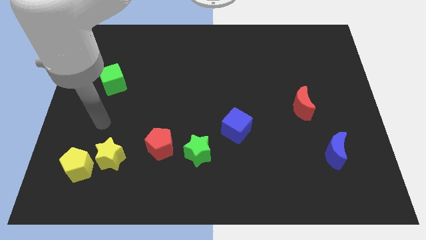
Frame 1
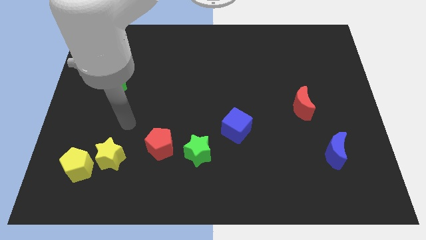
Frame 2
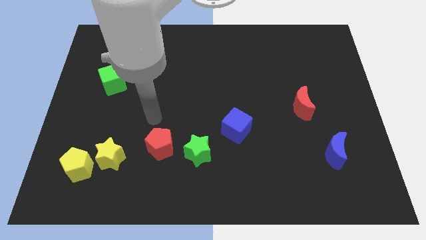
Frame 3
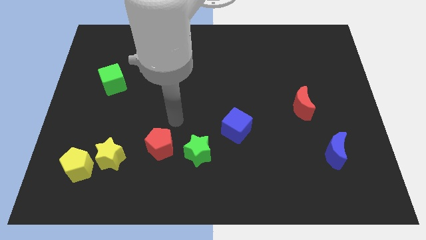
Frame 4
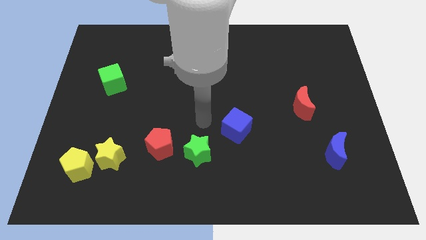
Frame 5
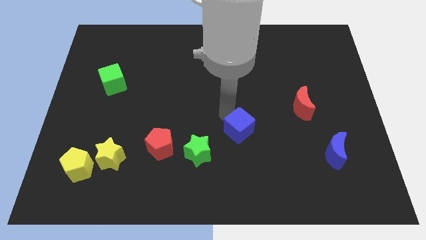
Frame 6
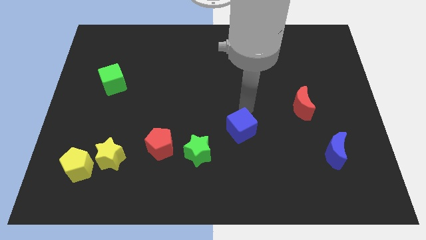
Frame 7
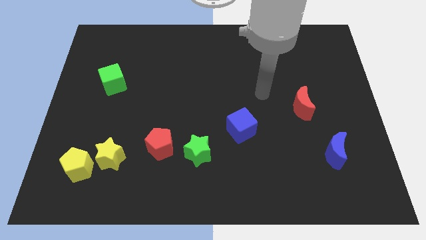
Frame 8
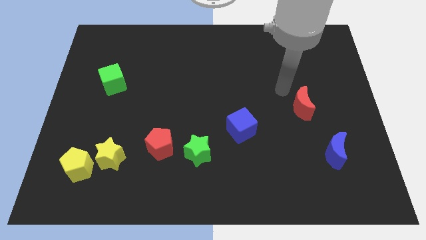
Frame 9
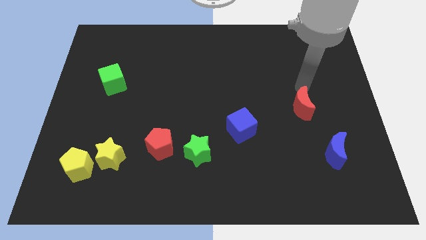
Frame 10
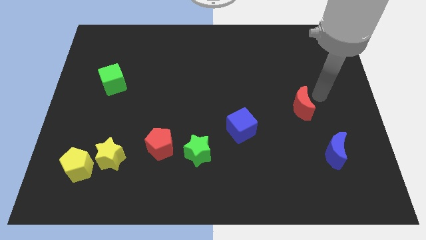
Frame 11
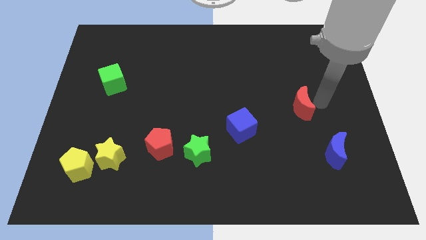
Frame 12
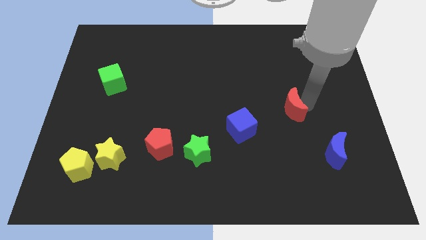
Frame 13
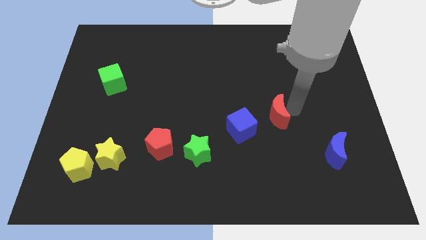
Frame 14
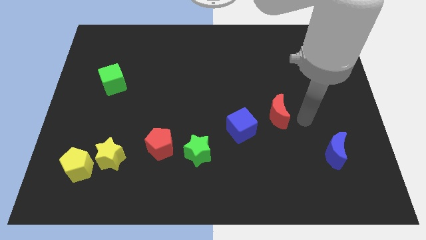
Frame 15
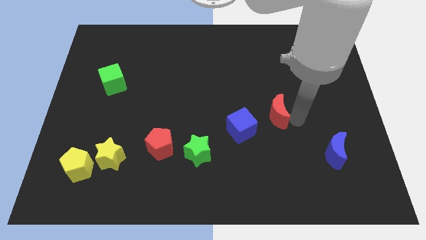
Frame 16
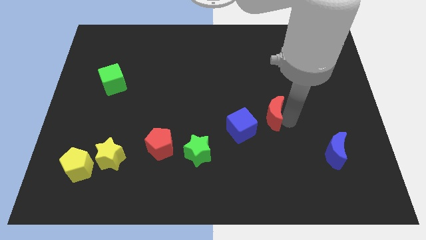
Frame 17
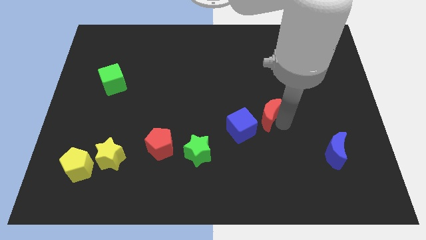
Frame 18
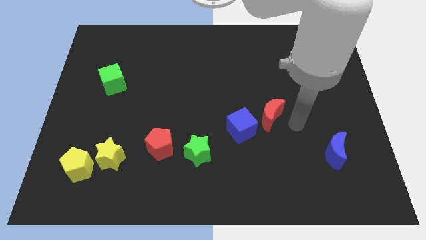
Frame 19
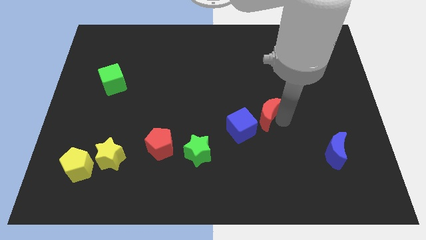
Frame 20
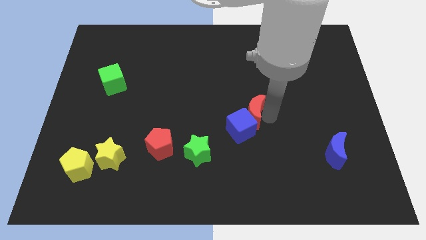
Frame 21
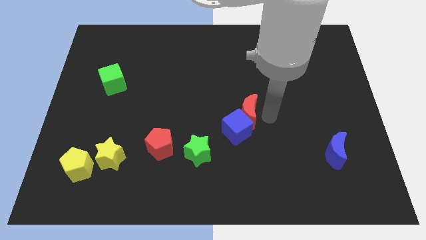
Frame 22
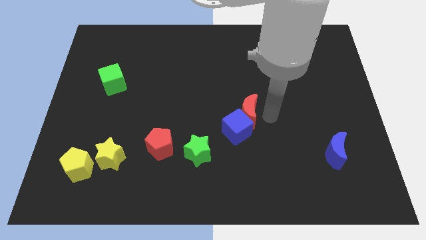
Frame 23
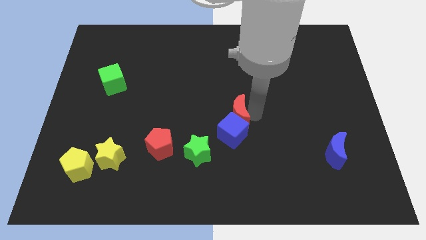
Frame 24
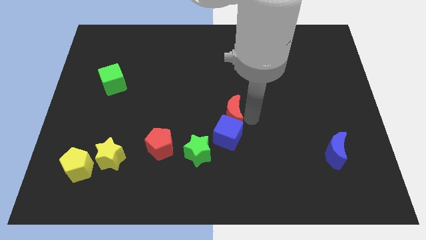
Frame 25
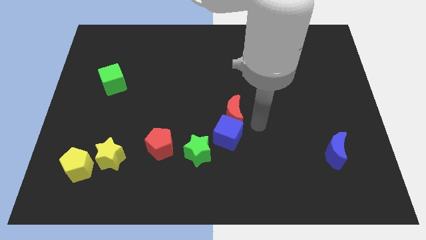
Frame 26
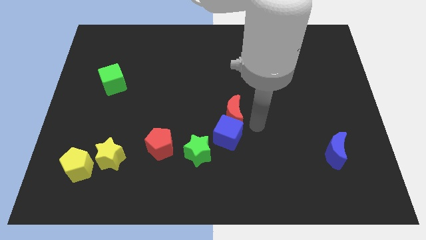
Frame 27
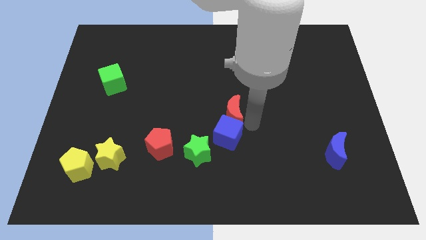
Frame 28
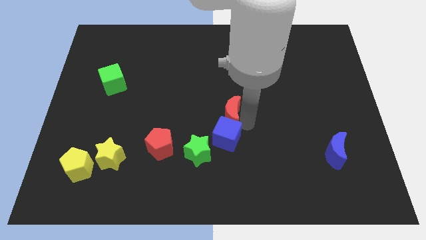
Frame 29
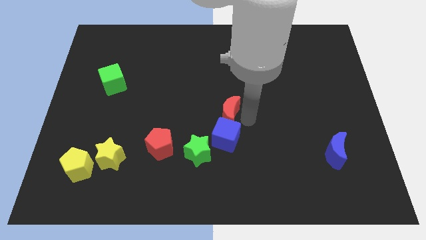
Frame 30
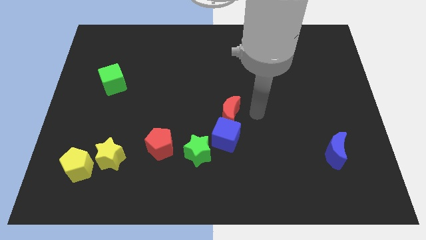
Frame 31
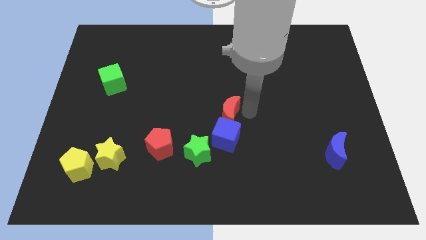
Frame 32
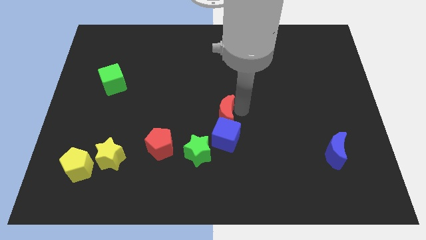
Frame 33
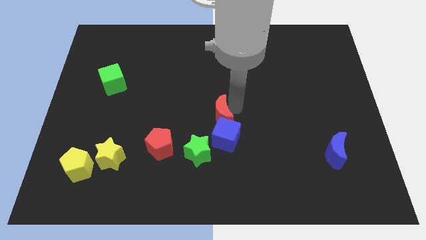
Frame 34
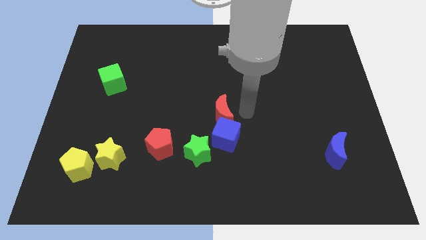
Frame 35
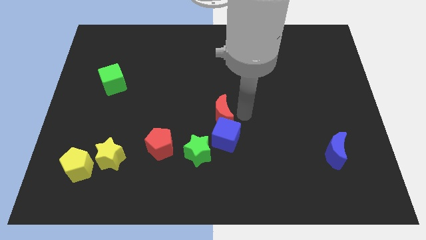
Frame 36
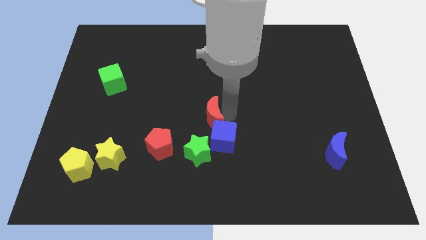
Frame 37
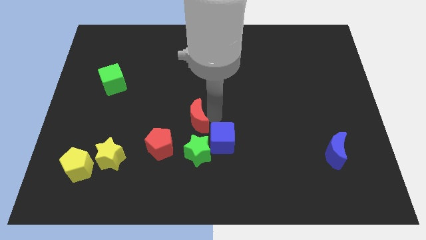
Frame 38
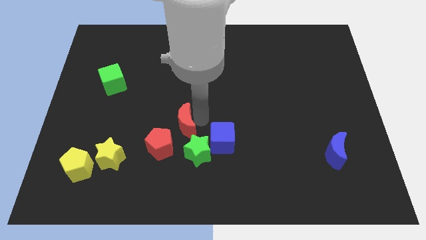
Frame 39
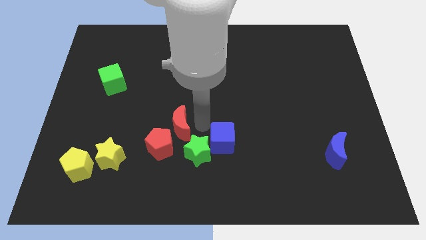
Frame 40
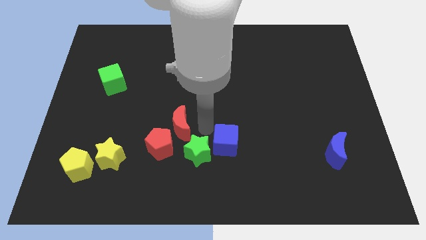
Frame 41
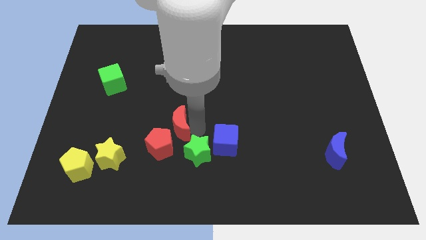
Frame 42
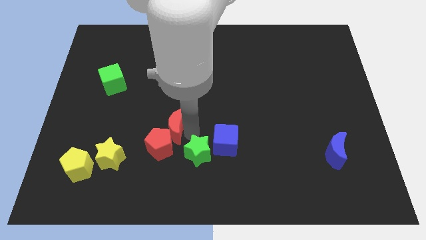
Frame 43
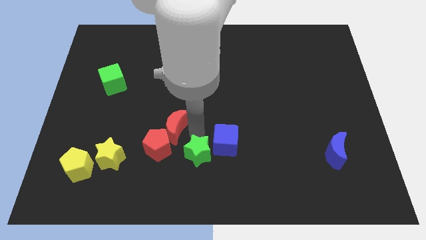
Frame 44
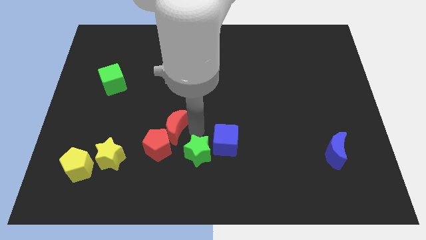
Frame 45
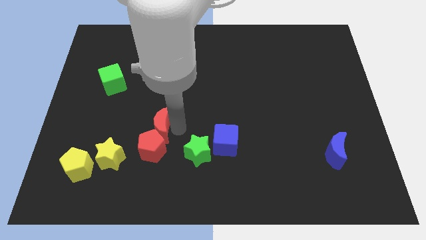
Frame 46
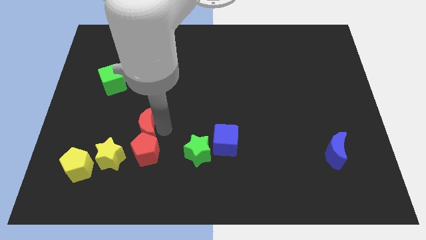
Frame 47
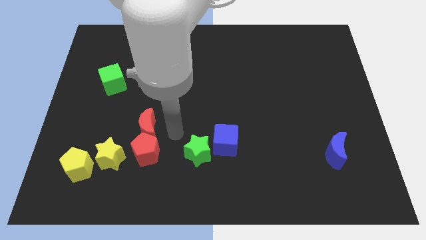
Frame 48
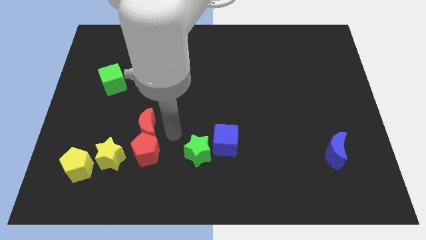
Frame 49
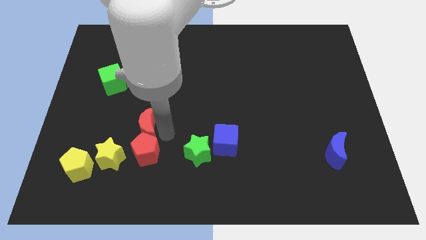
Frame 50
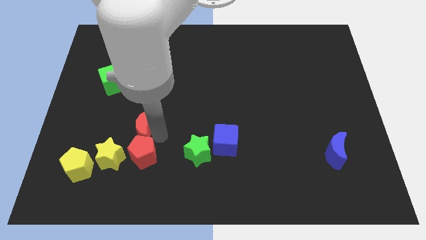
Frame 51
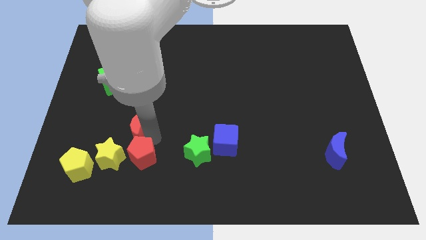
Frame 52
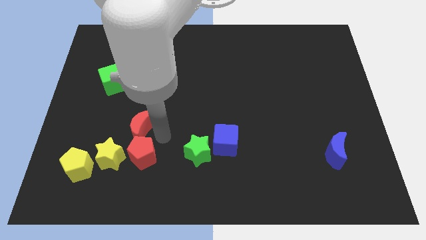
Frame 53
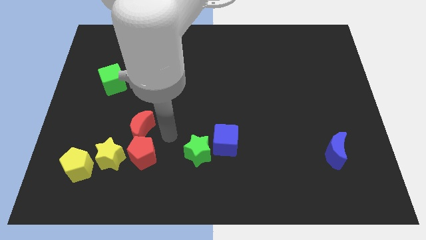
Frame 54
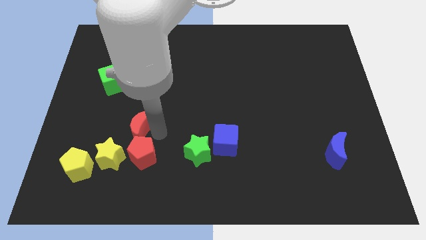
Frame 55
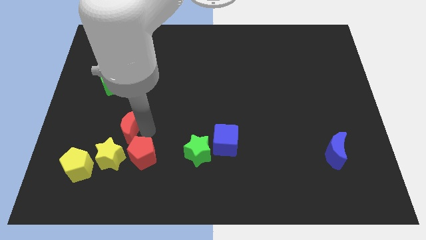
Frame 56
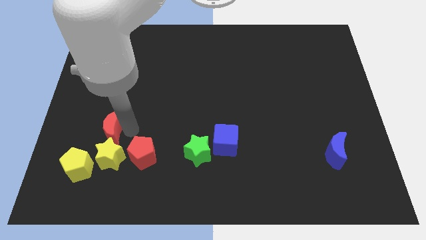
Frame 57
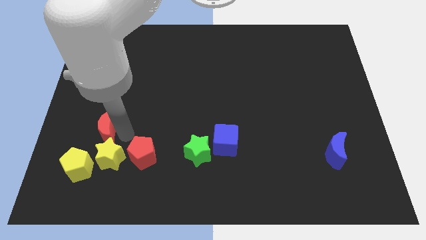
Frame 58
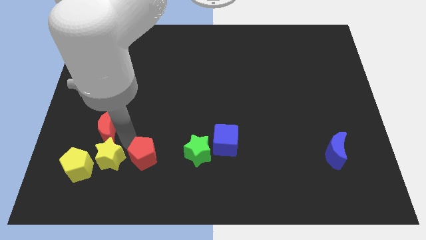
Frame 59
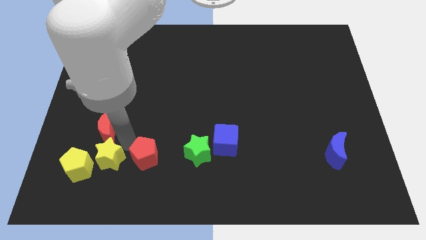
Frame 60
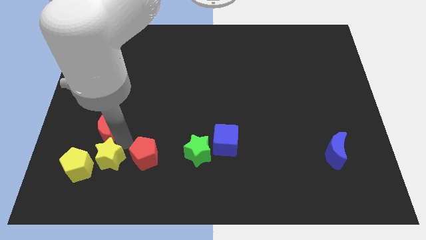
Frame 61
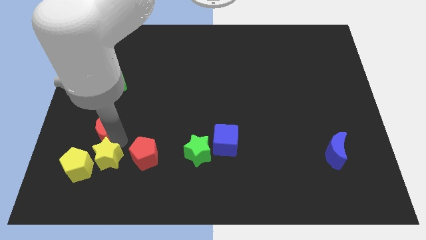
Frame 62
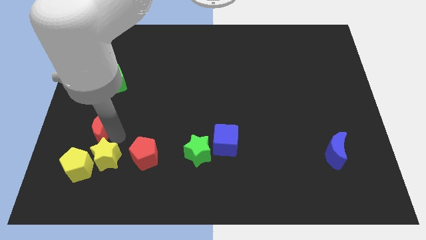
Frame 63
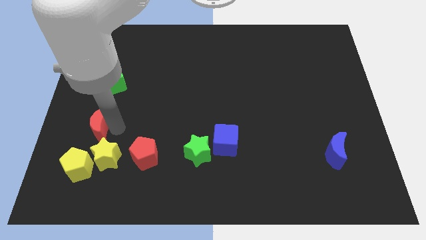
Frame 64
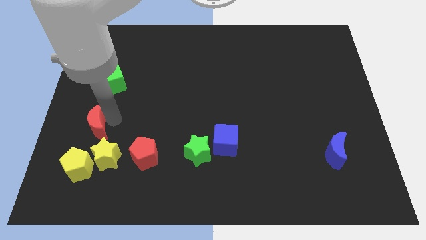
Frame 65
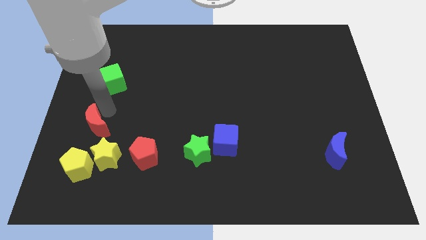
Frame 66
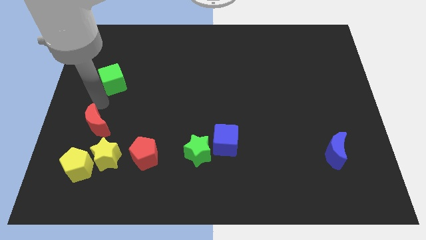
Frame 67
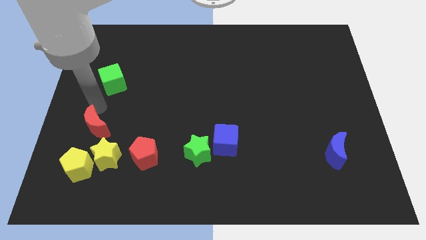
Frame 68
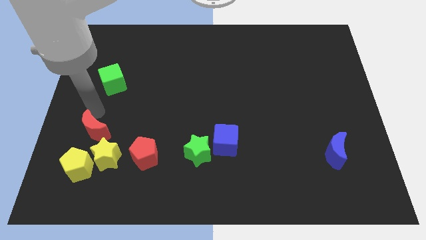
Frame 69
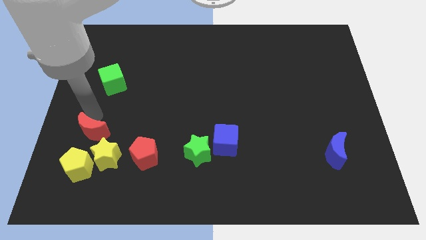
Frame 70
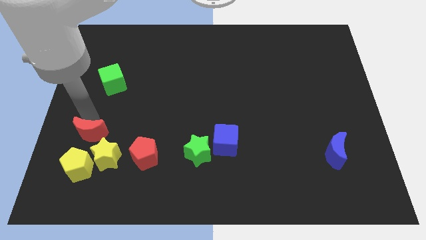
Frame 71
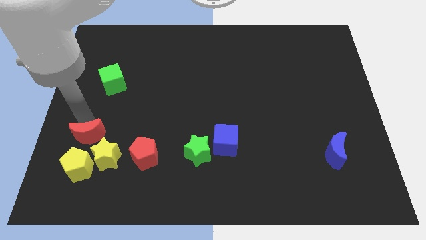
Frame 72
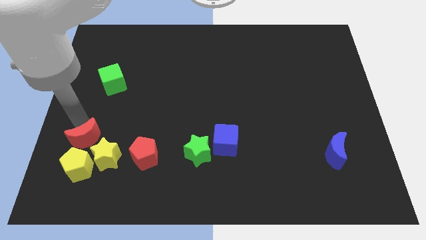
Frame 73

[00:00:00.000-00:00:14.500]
push the red moon to the left of the red pentagon

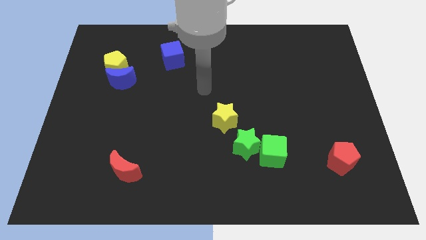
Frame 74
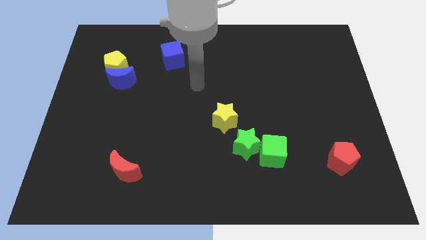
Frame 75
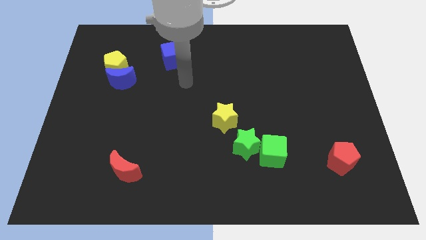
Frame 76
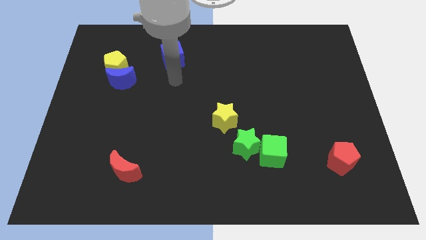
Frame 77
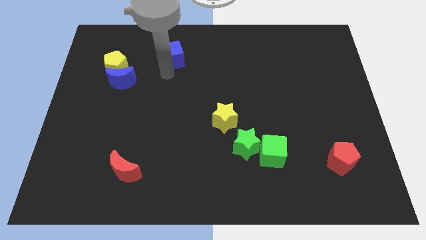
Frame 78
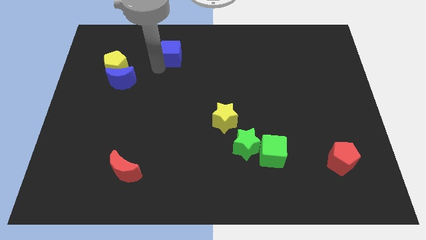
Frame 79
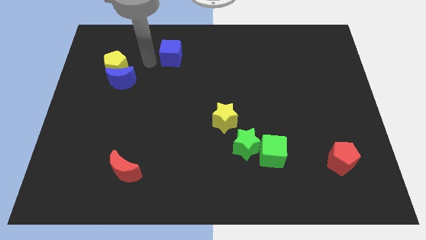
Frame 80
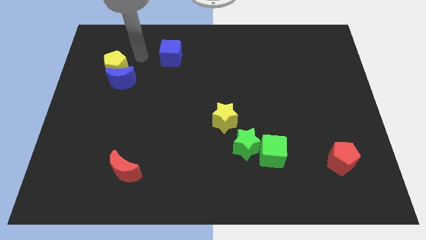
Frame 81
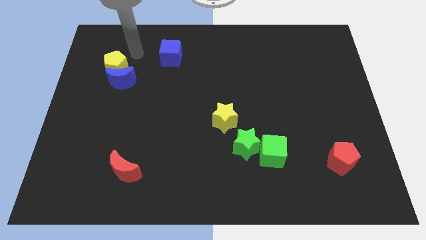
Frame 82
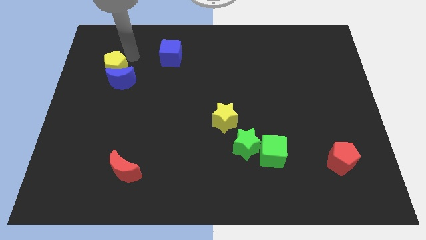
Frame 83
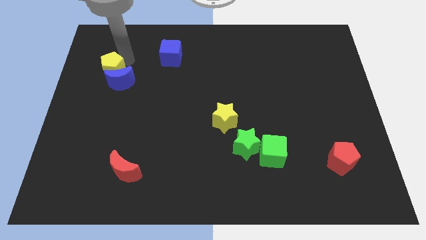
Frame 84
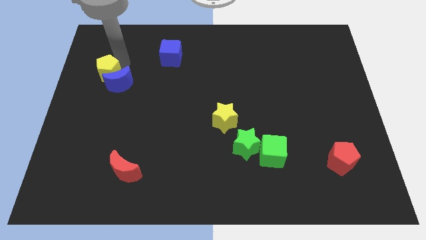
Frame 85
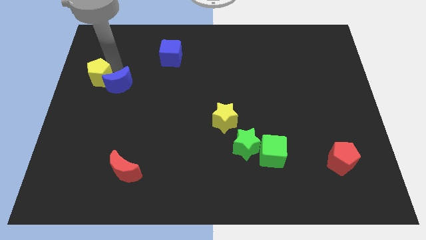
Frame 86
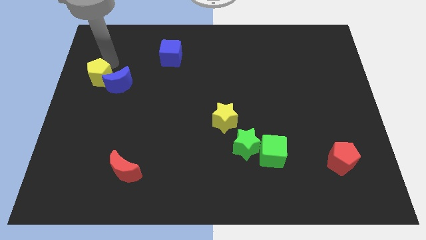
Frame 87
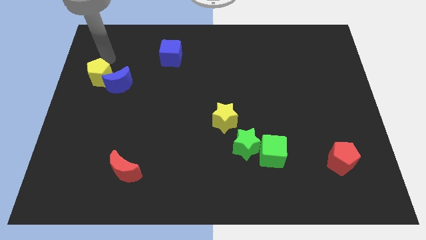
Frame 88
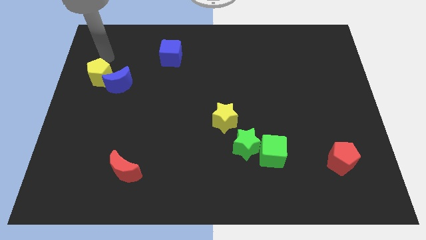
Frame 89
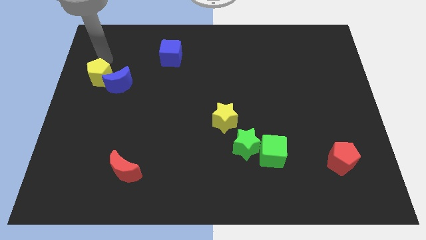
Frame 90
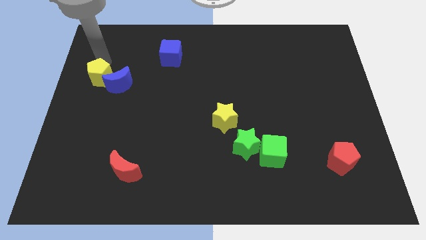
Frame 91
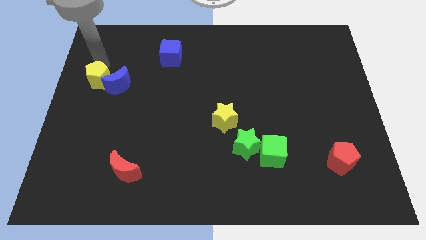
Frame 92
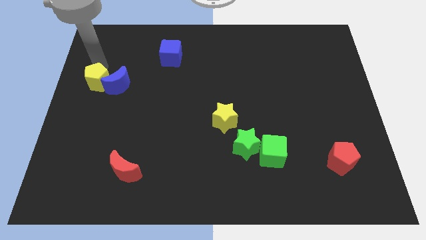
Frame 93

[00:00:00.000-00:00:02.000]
move the yellow pentagon to the bottom left of the blue moon
